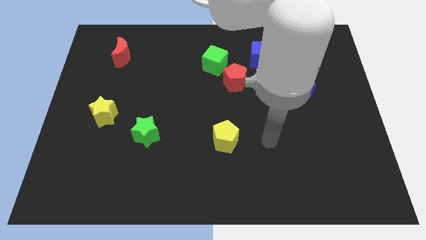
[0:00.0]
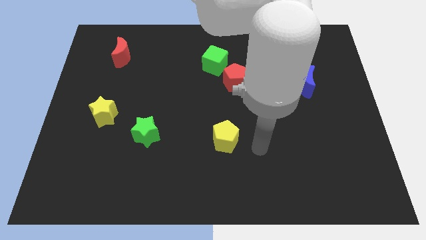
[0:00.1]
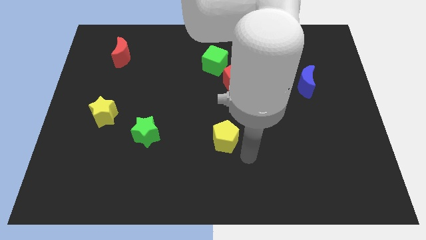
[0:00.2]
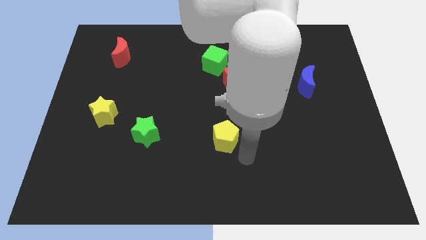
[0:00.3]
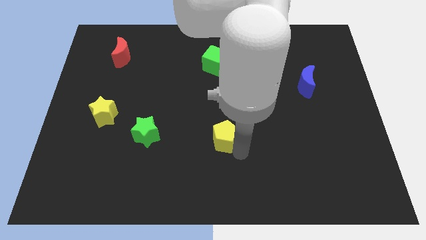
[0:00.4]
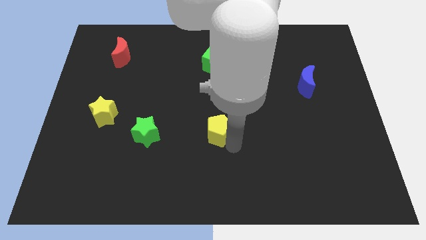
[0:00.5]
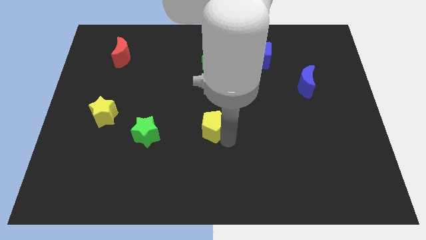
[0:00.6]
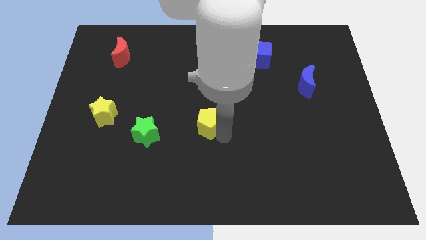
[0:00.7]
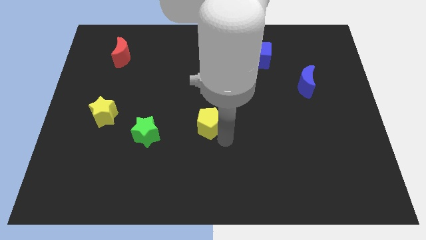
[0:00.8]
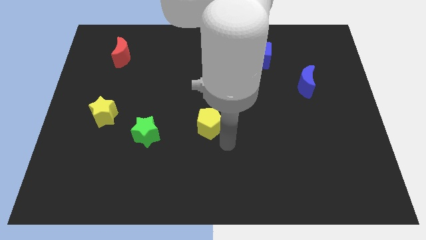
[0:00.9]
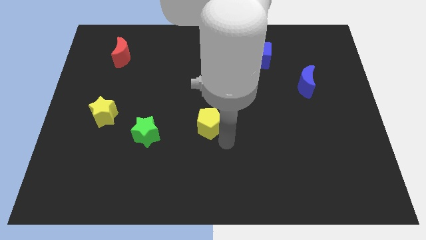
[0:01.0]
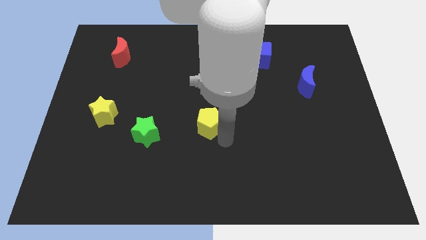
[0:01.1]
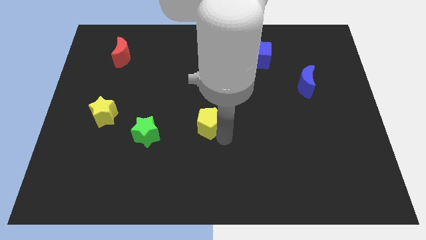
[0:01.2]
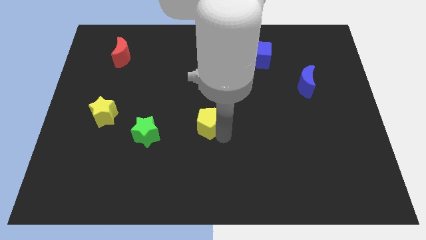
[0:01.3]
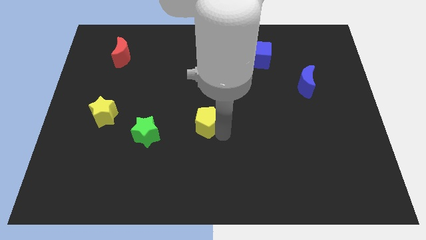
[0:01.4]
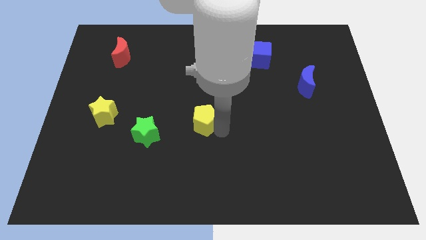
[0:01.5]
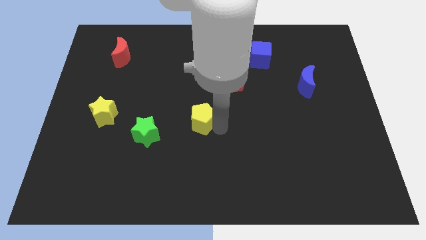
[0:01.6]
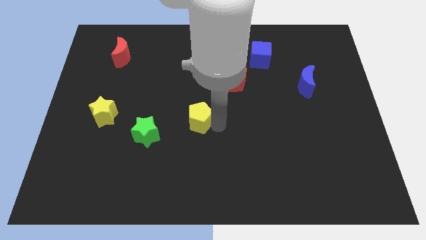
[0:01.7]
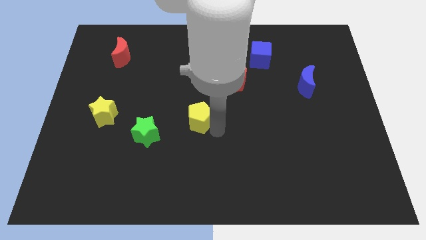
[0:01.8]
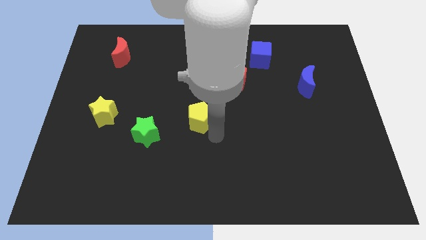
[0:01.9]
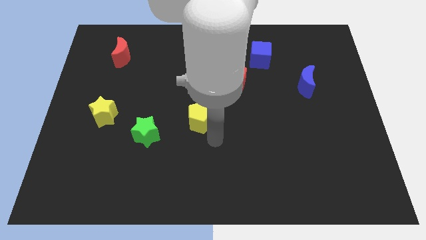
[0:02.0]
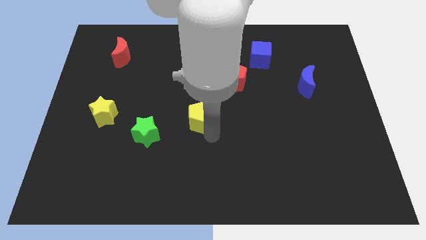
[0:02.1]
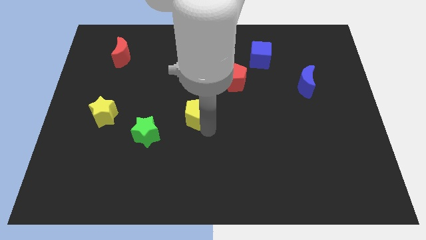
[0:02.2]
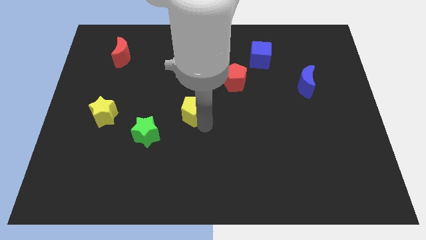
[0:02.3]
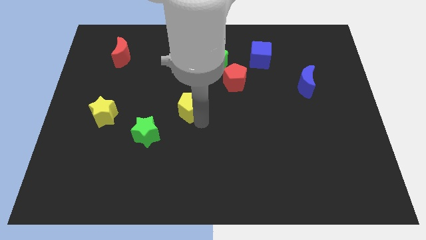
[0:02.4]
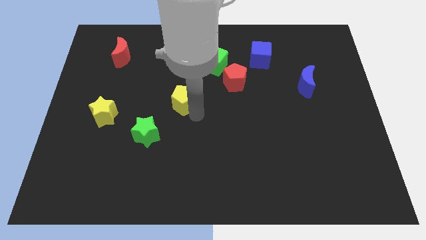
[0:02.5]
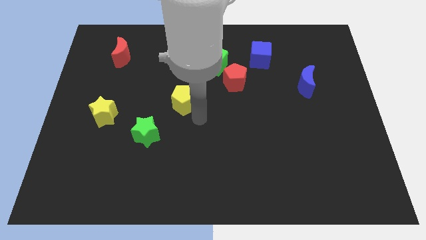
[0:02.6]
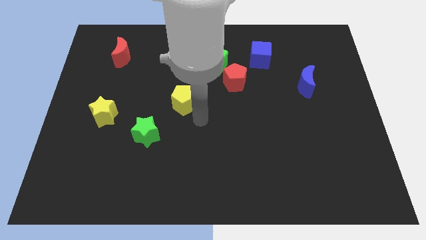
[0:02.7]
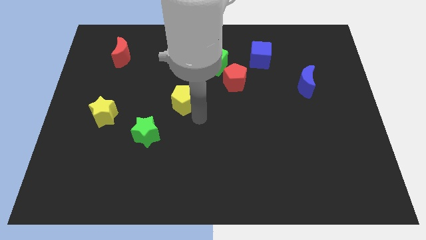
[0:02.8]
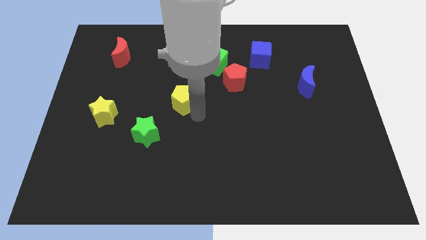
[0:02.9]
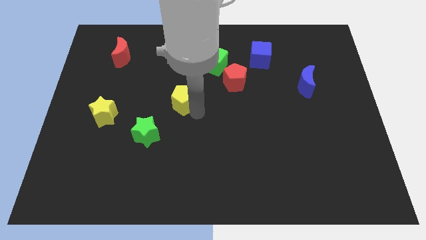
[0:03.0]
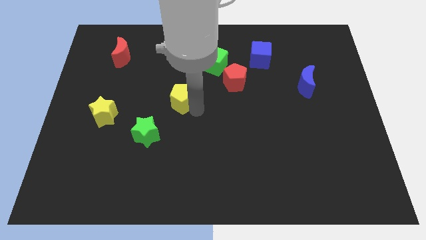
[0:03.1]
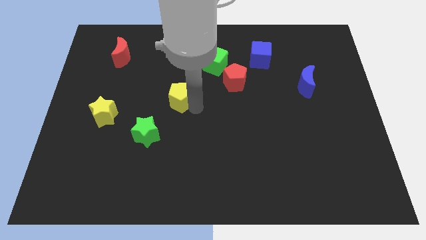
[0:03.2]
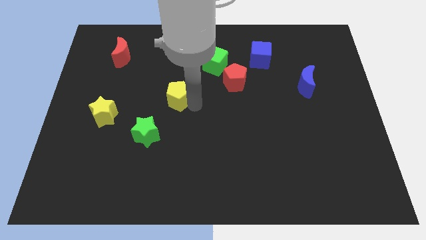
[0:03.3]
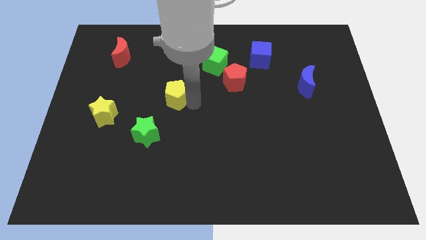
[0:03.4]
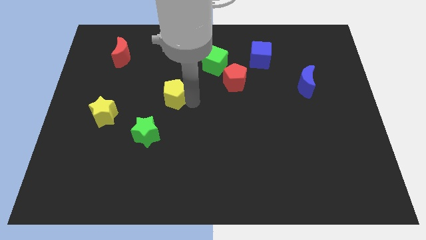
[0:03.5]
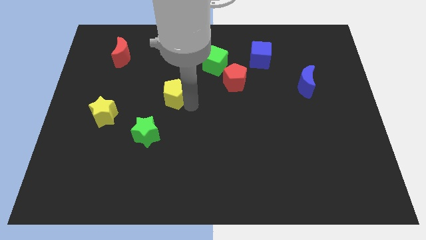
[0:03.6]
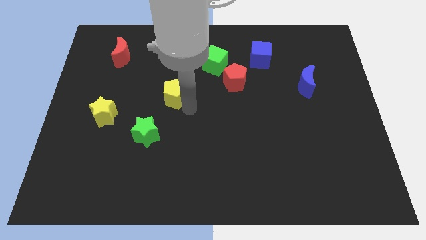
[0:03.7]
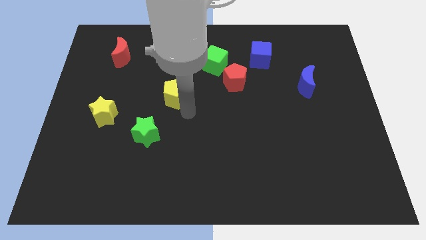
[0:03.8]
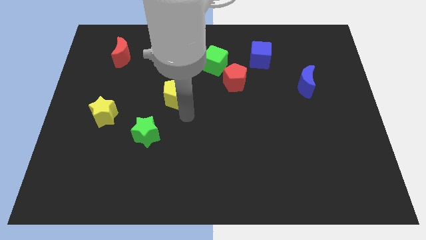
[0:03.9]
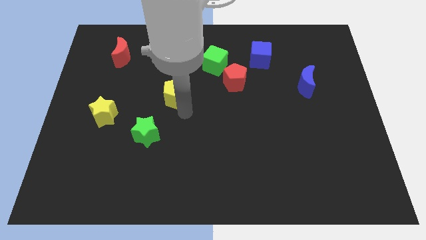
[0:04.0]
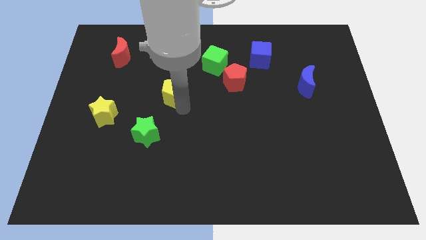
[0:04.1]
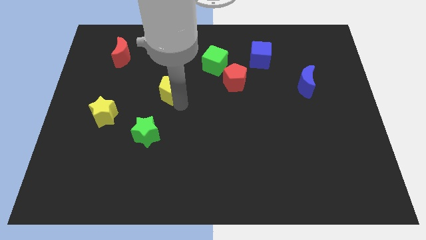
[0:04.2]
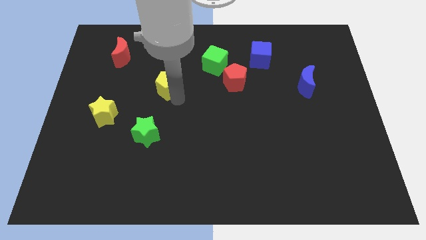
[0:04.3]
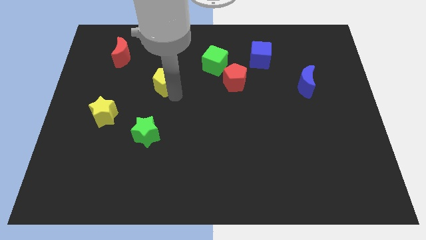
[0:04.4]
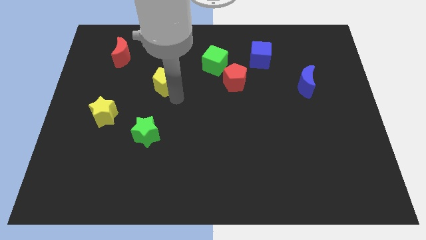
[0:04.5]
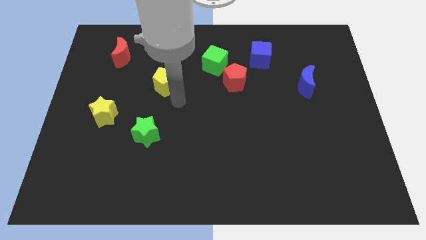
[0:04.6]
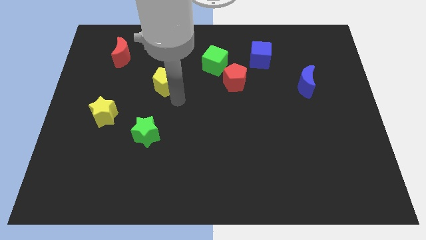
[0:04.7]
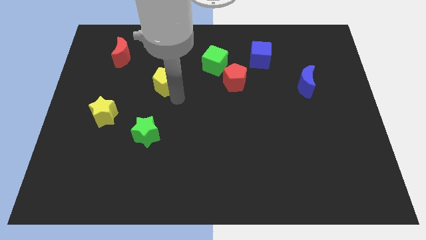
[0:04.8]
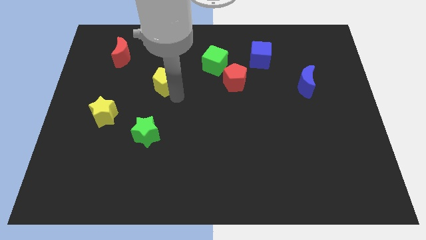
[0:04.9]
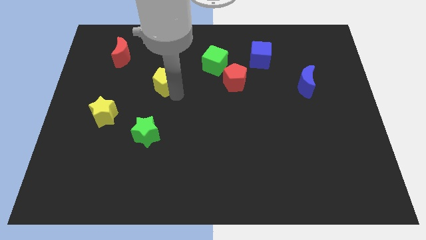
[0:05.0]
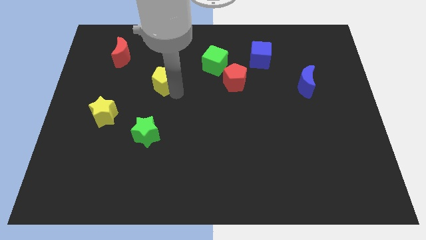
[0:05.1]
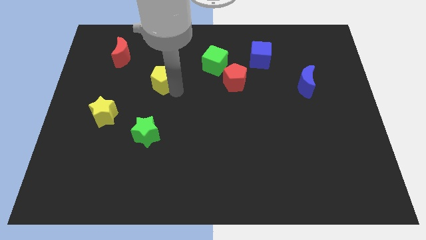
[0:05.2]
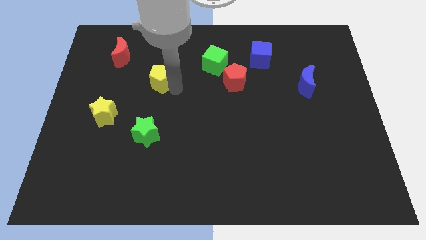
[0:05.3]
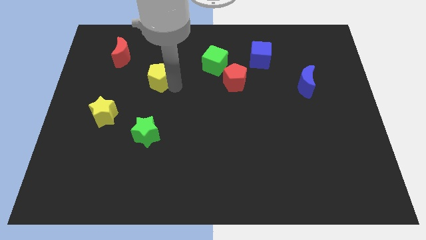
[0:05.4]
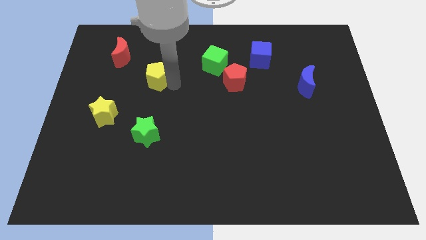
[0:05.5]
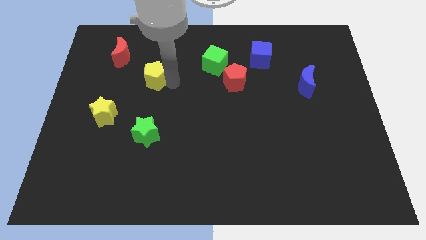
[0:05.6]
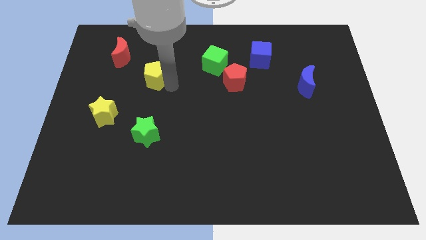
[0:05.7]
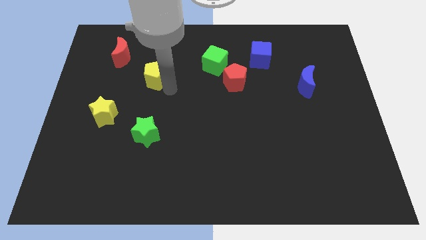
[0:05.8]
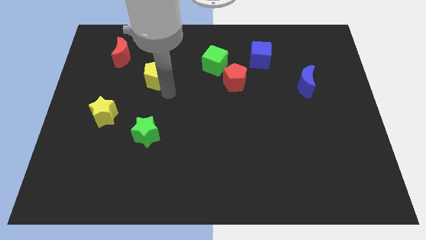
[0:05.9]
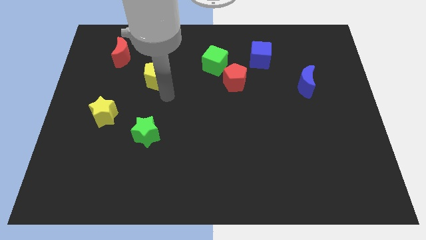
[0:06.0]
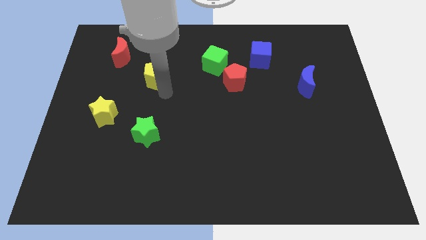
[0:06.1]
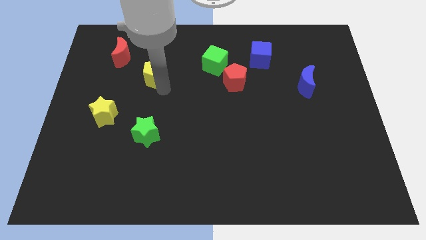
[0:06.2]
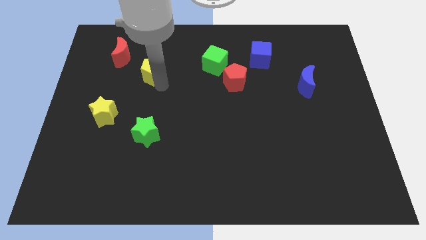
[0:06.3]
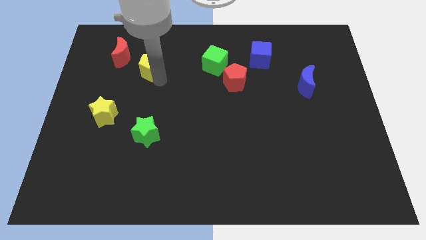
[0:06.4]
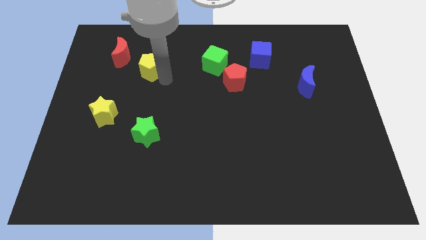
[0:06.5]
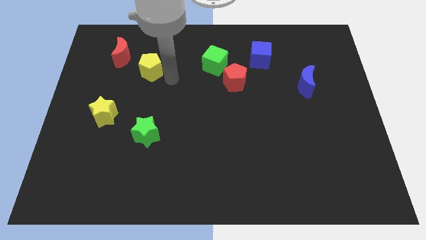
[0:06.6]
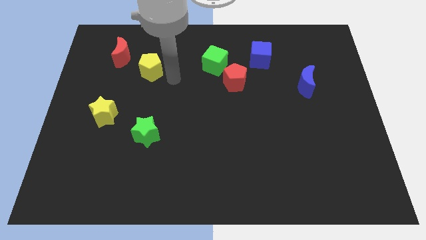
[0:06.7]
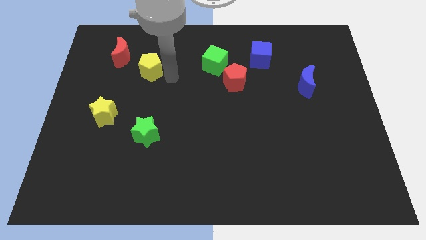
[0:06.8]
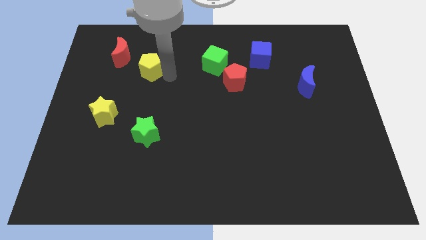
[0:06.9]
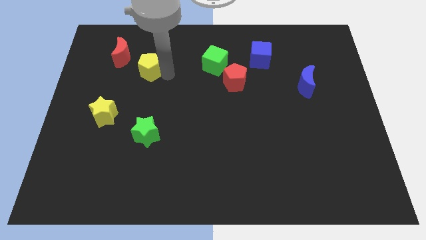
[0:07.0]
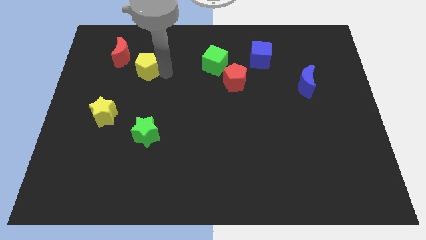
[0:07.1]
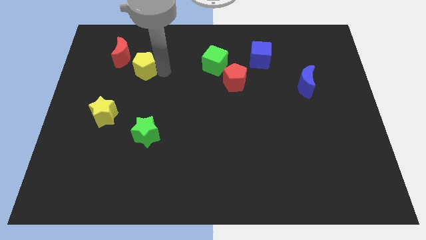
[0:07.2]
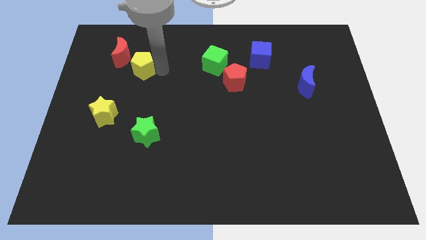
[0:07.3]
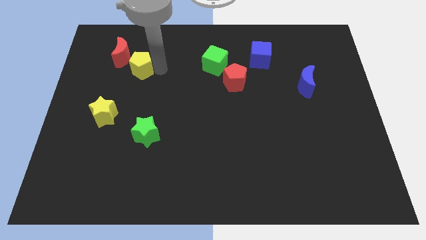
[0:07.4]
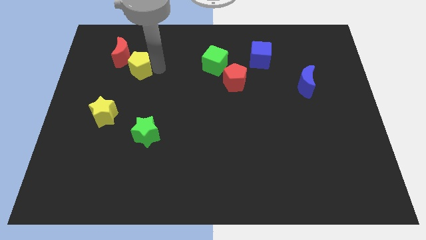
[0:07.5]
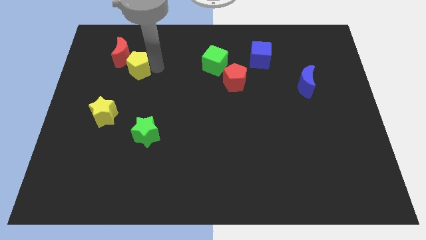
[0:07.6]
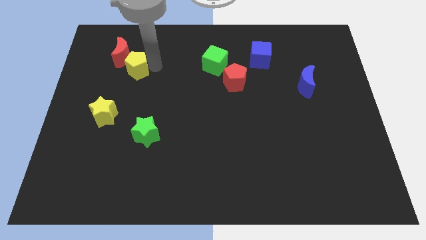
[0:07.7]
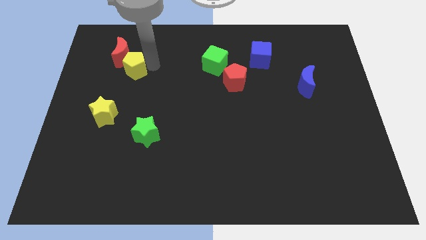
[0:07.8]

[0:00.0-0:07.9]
push the yellow pentagon next to the red moon
